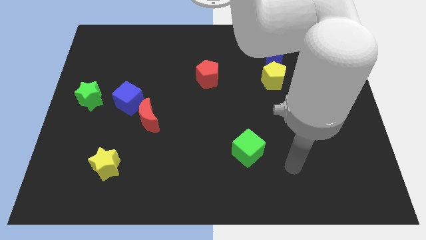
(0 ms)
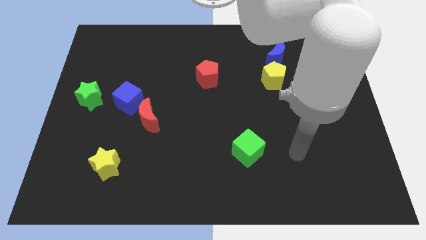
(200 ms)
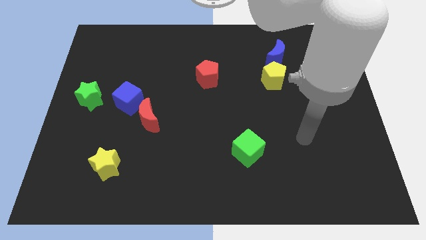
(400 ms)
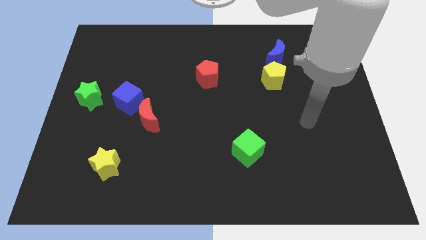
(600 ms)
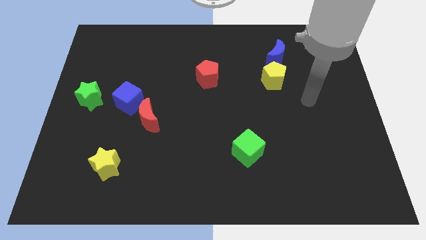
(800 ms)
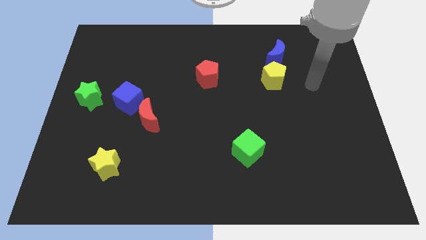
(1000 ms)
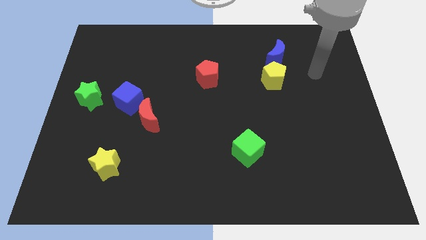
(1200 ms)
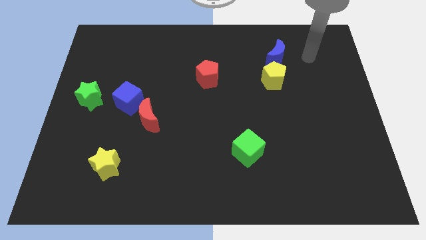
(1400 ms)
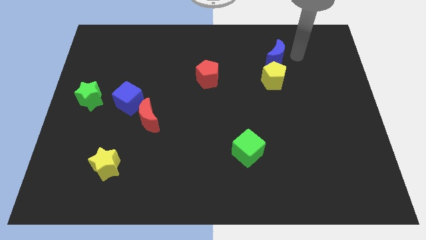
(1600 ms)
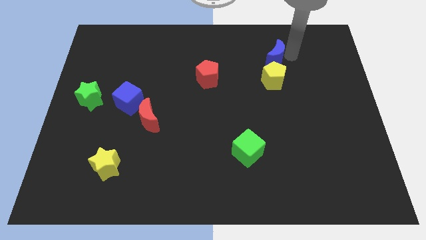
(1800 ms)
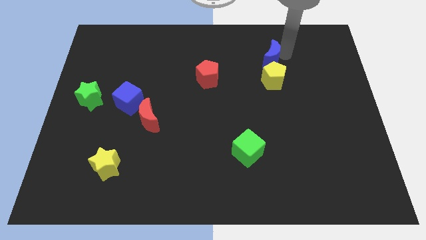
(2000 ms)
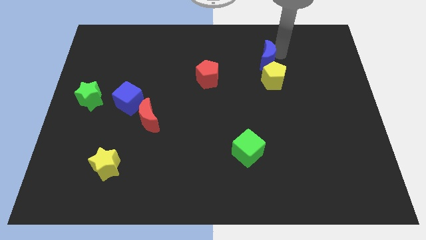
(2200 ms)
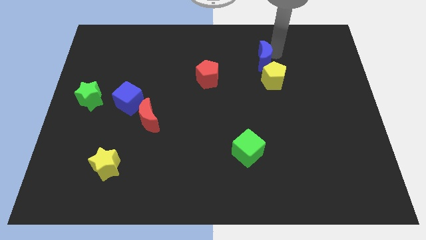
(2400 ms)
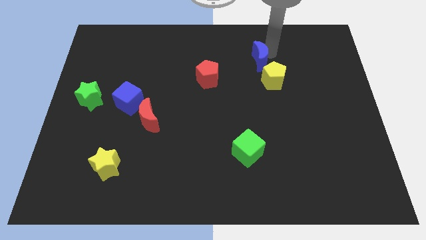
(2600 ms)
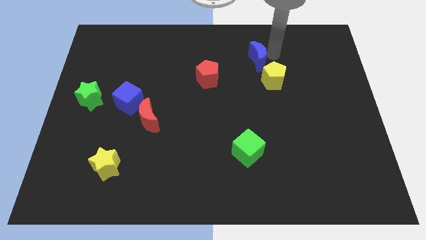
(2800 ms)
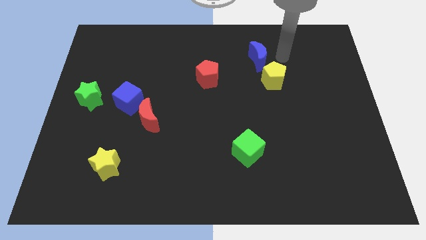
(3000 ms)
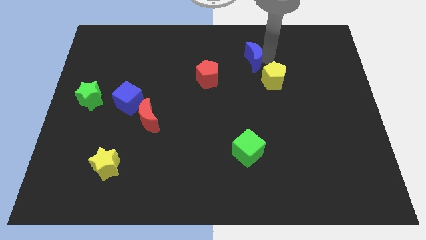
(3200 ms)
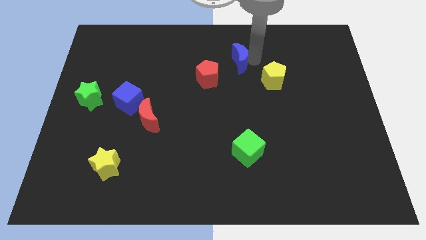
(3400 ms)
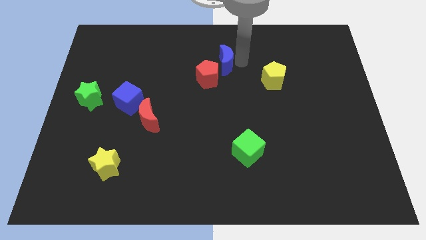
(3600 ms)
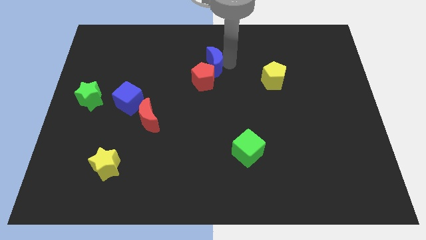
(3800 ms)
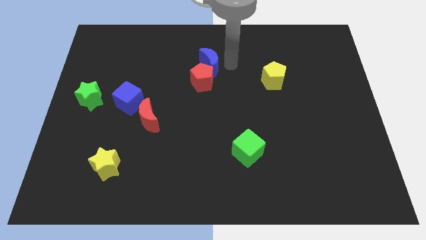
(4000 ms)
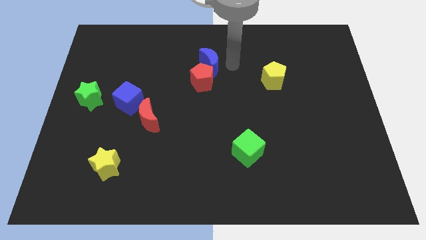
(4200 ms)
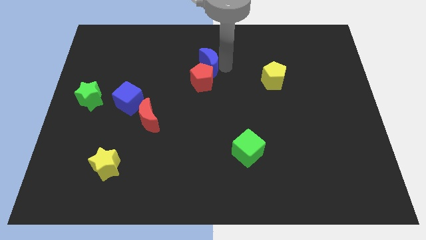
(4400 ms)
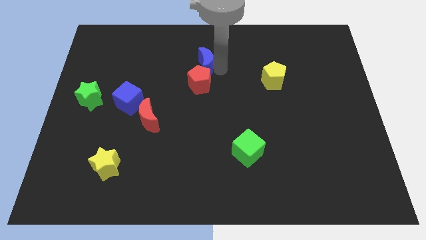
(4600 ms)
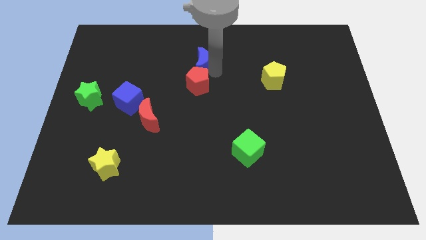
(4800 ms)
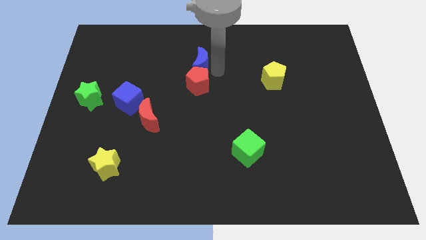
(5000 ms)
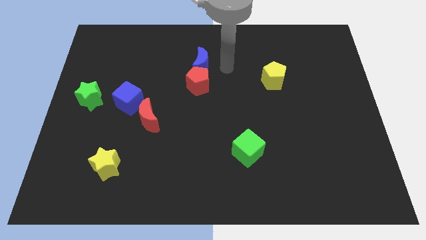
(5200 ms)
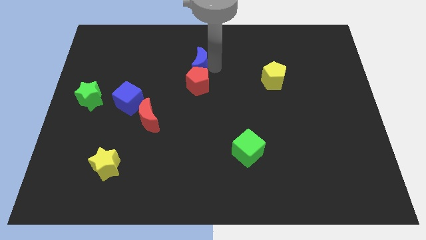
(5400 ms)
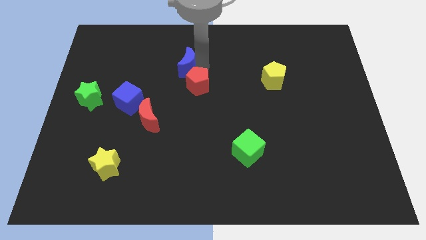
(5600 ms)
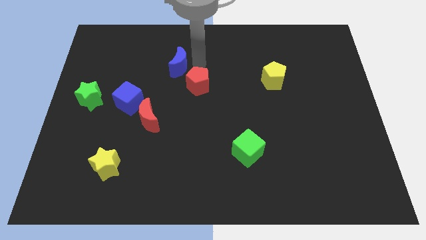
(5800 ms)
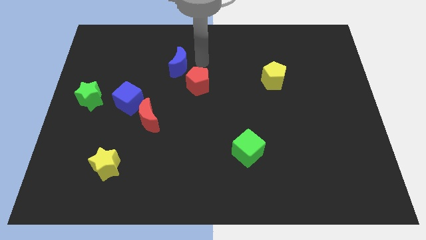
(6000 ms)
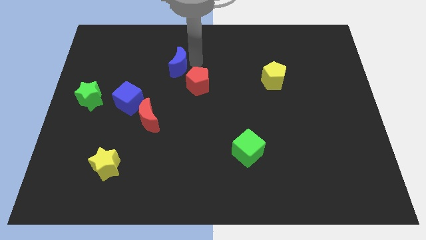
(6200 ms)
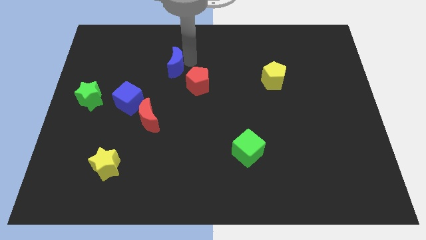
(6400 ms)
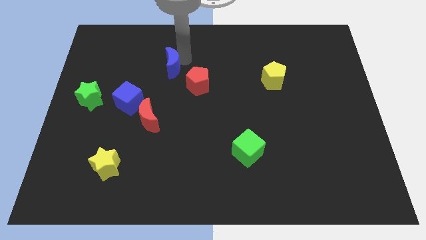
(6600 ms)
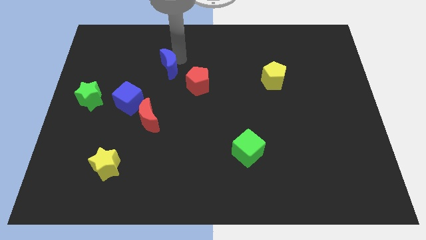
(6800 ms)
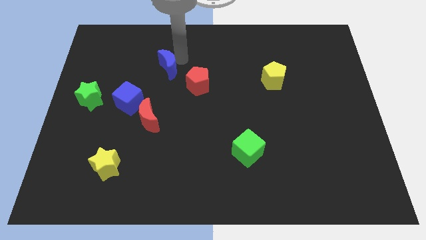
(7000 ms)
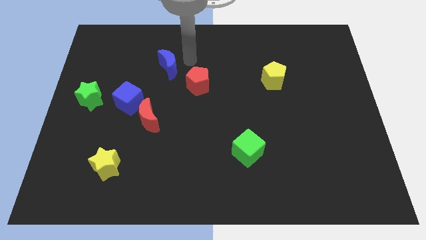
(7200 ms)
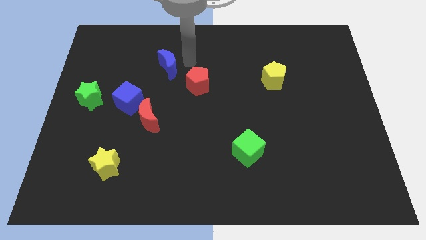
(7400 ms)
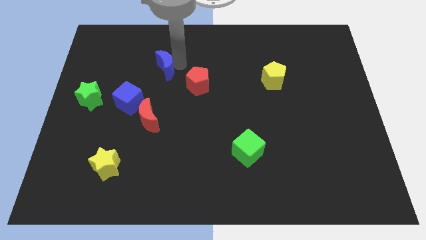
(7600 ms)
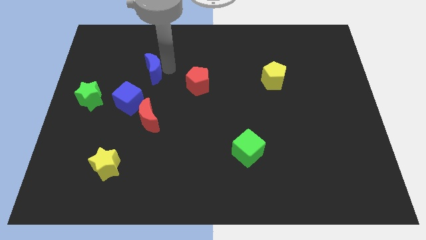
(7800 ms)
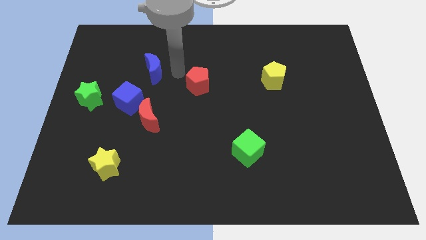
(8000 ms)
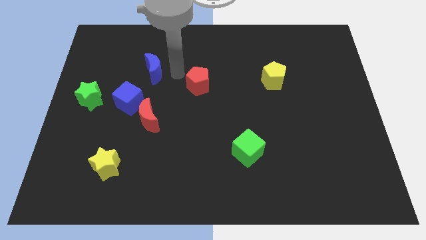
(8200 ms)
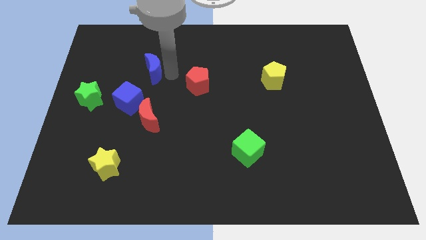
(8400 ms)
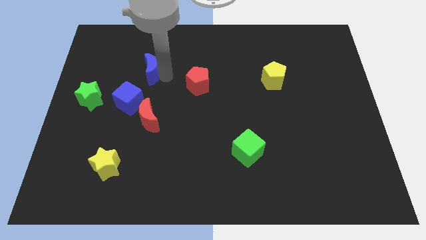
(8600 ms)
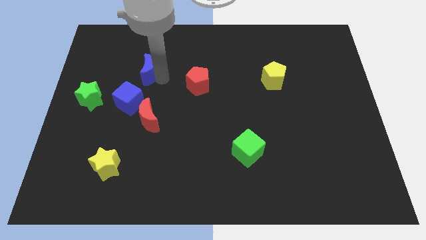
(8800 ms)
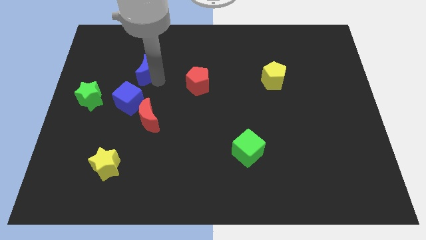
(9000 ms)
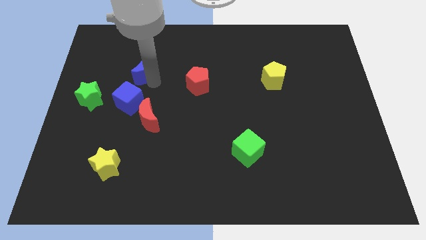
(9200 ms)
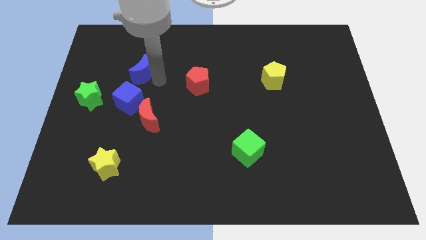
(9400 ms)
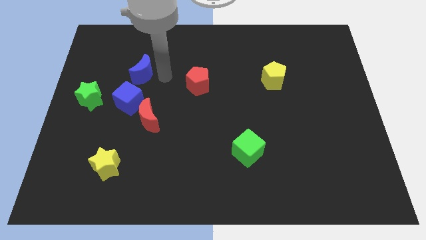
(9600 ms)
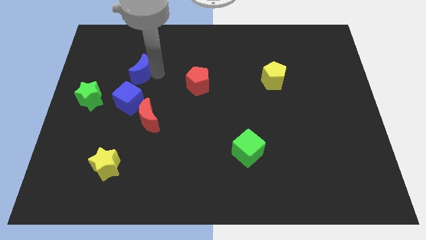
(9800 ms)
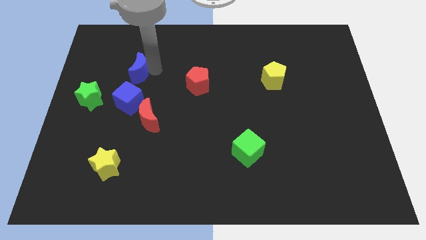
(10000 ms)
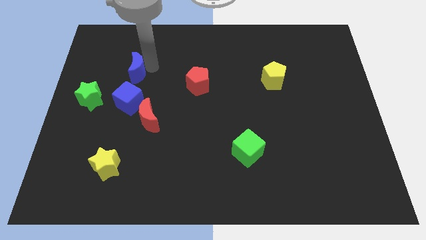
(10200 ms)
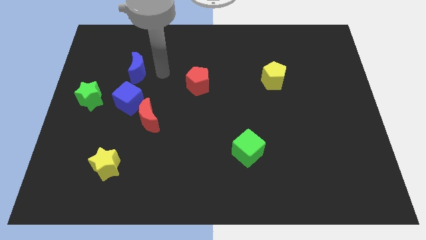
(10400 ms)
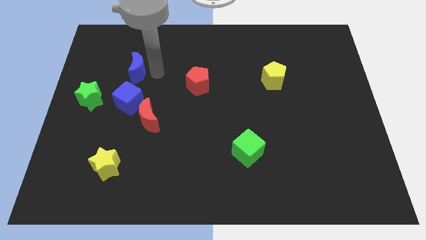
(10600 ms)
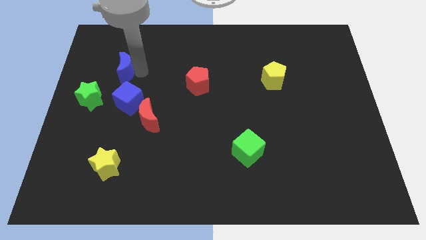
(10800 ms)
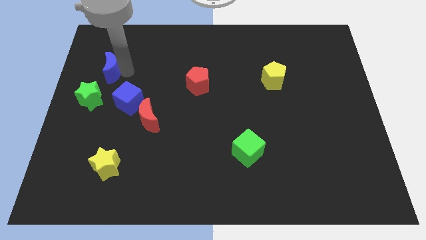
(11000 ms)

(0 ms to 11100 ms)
put the blue moon to the top of the green star

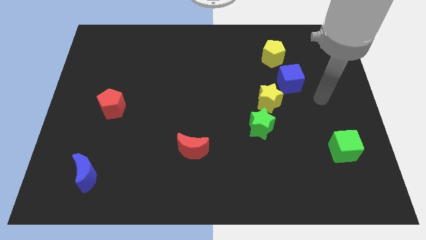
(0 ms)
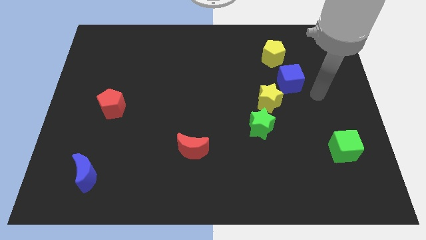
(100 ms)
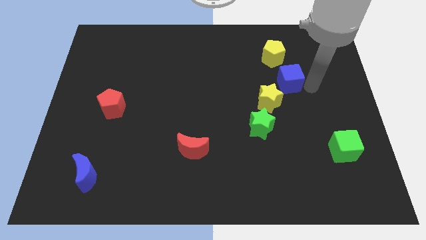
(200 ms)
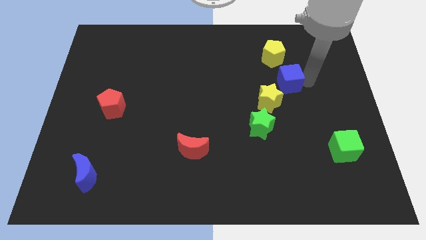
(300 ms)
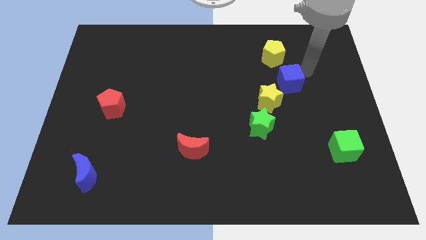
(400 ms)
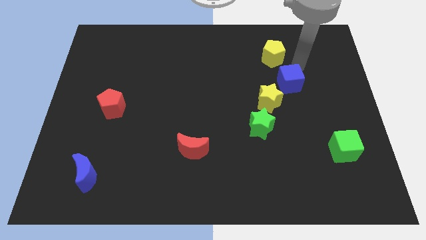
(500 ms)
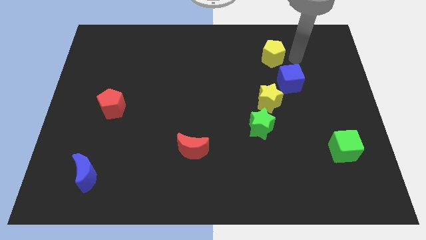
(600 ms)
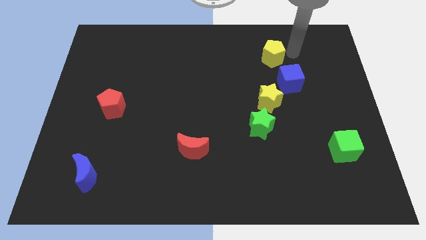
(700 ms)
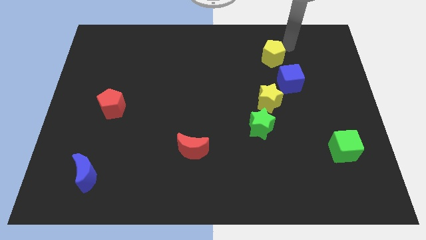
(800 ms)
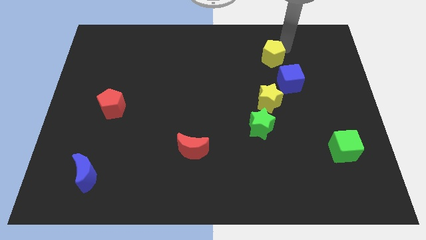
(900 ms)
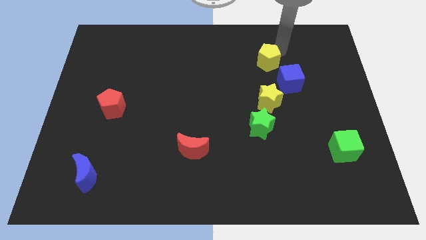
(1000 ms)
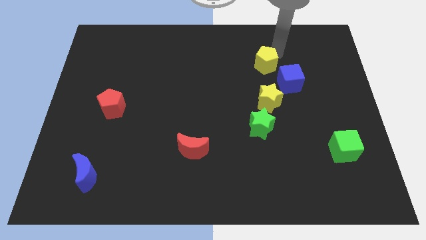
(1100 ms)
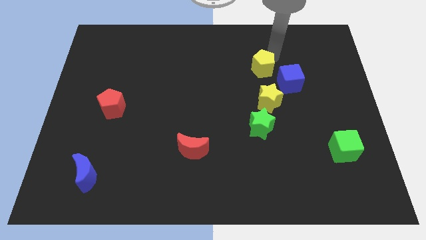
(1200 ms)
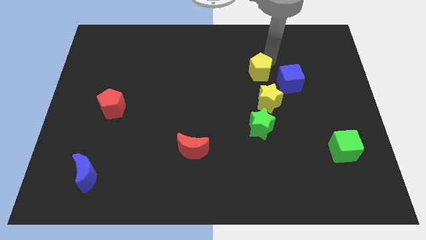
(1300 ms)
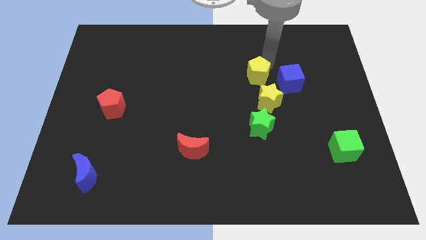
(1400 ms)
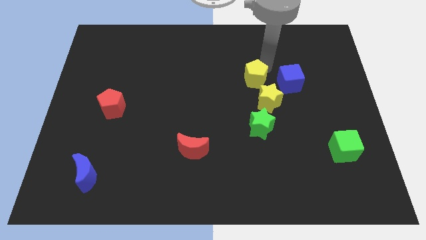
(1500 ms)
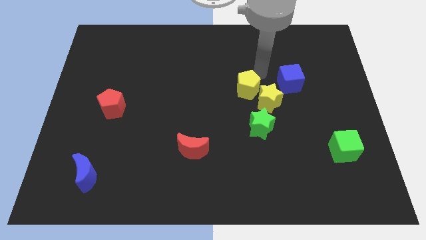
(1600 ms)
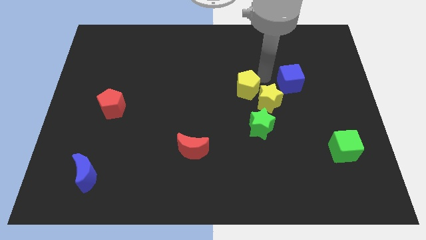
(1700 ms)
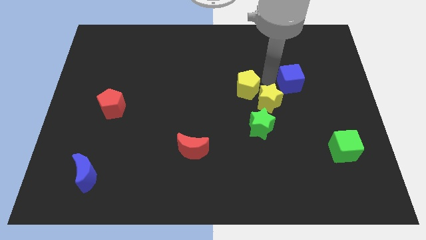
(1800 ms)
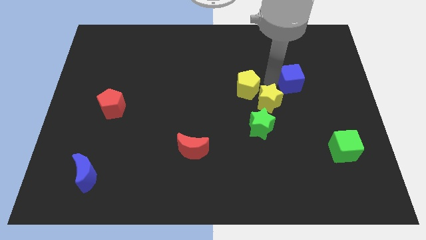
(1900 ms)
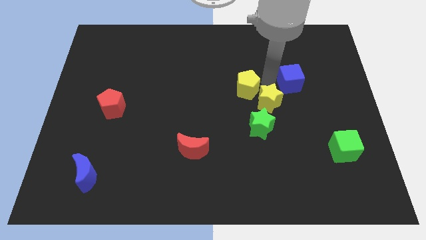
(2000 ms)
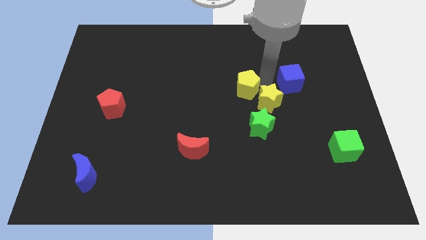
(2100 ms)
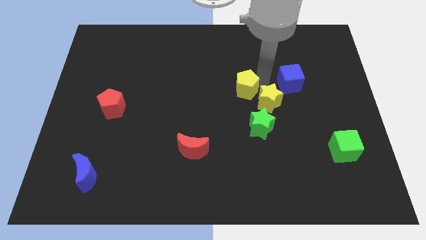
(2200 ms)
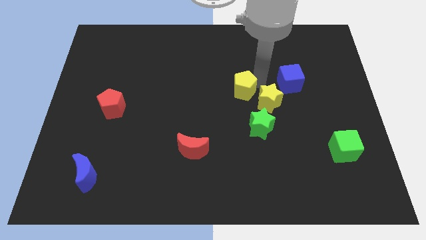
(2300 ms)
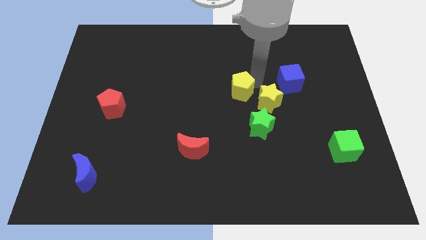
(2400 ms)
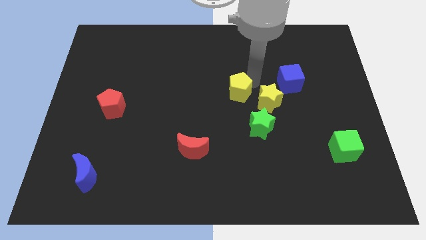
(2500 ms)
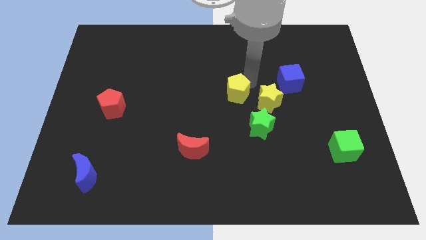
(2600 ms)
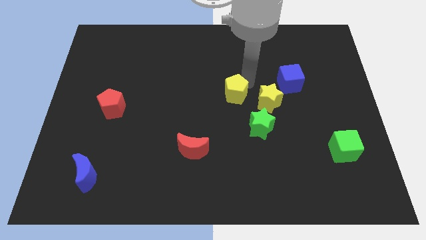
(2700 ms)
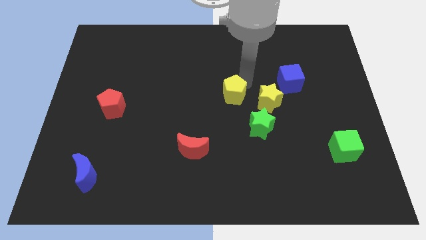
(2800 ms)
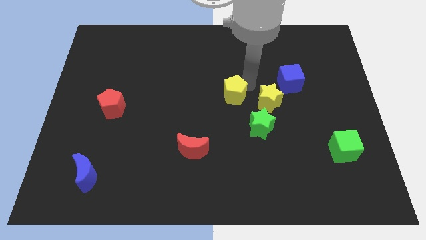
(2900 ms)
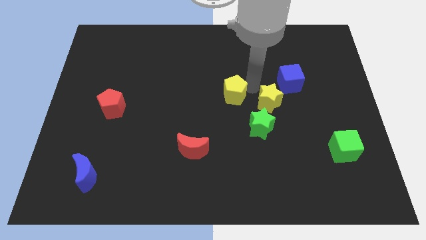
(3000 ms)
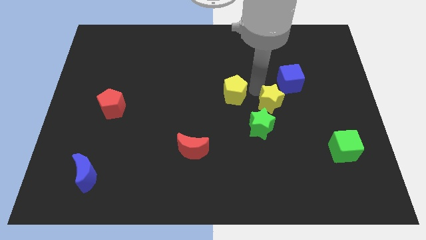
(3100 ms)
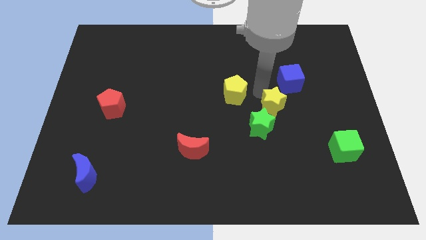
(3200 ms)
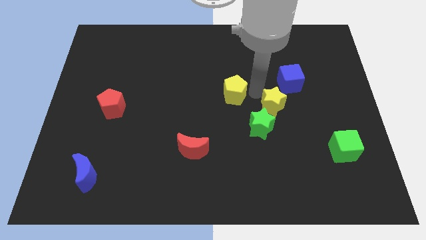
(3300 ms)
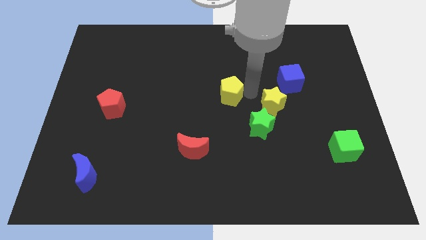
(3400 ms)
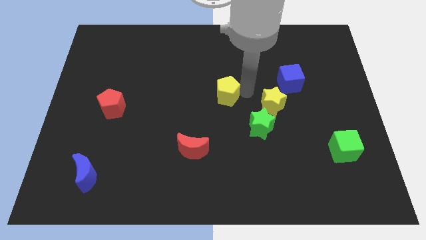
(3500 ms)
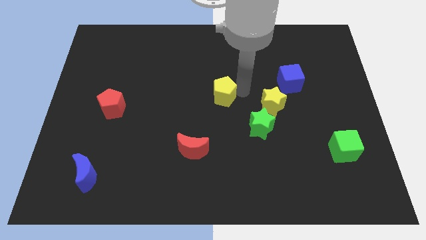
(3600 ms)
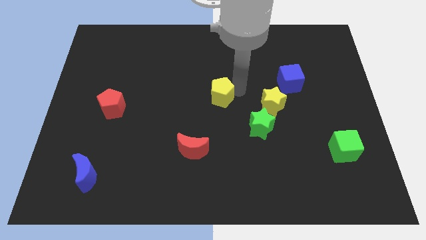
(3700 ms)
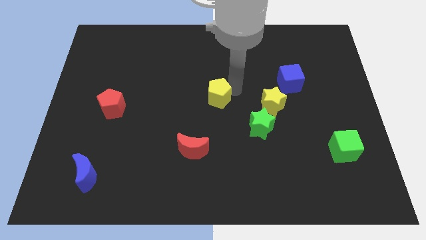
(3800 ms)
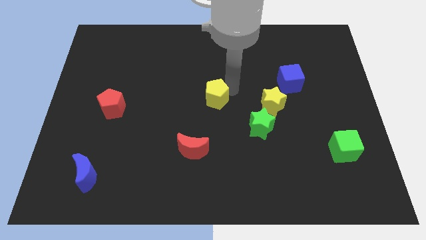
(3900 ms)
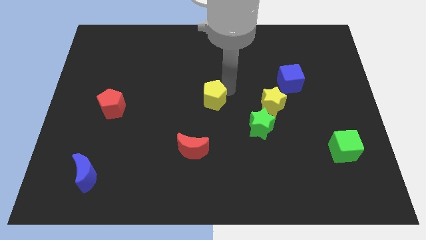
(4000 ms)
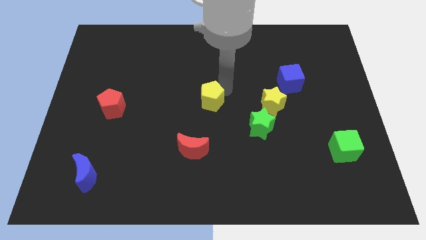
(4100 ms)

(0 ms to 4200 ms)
slide the yellow pentagon above the red moon
